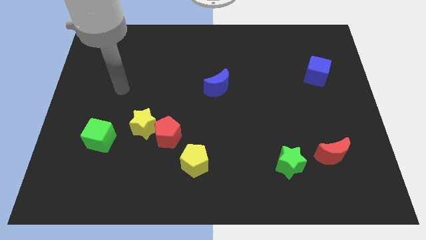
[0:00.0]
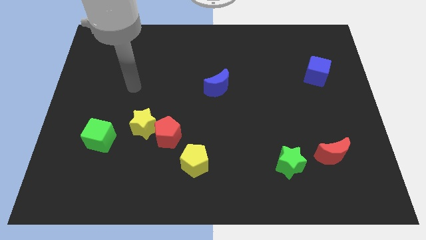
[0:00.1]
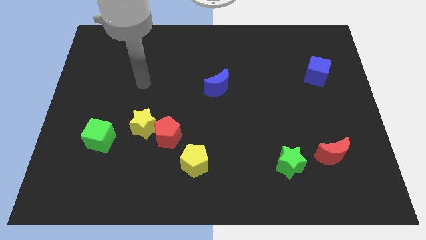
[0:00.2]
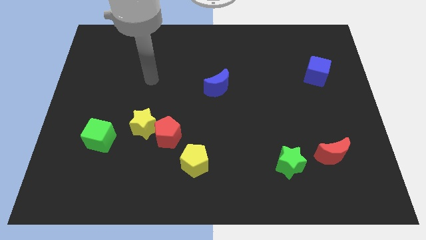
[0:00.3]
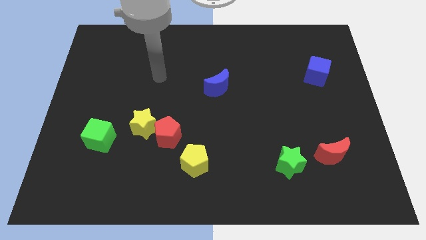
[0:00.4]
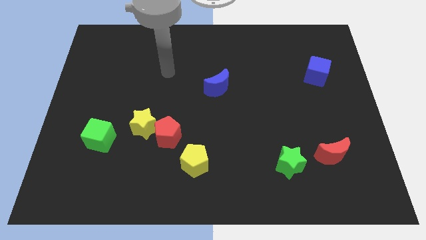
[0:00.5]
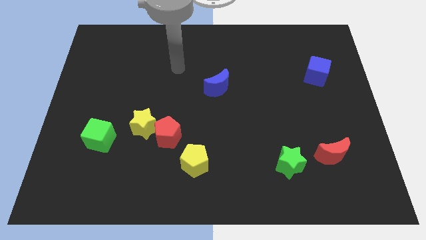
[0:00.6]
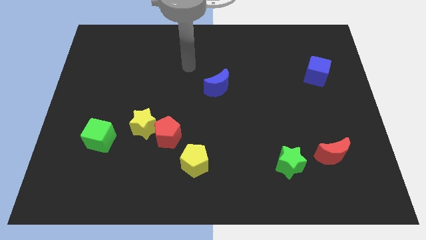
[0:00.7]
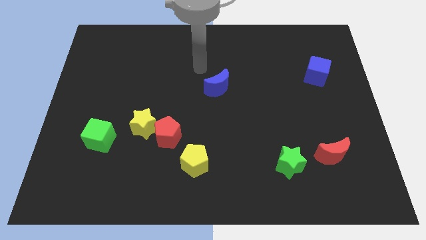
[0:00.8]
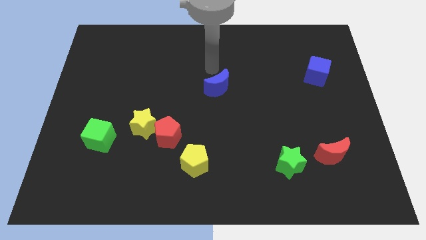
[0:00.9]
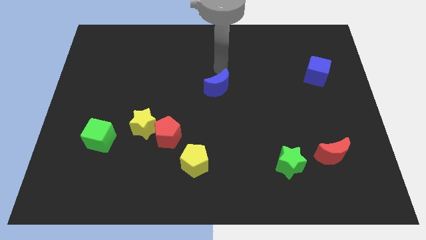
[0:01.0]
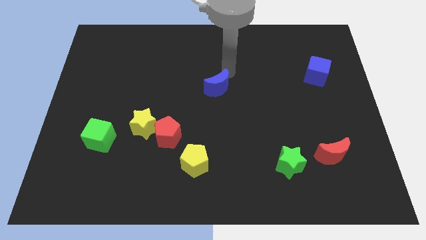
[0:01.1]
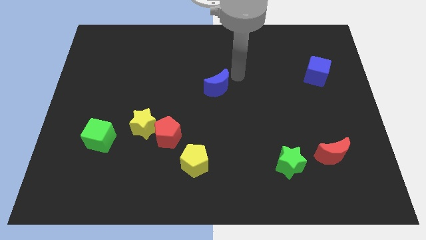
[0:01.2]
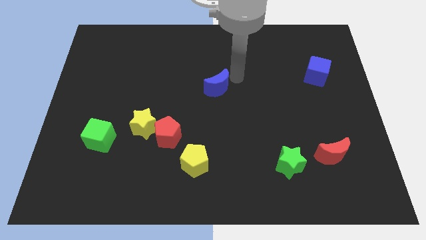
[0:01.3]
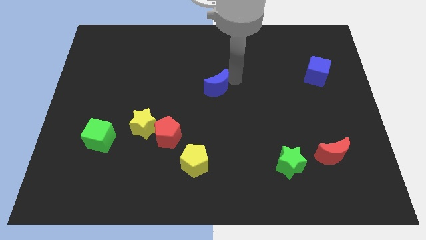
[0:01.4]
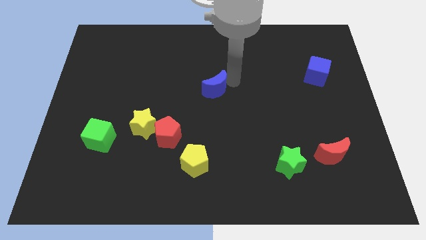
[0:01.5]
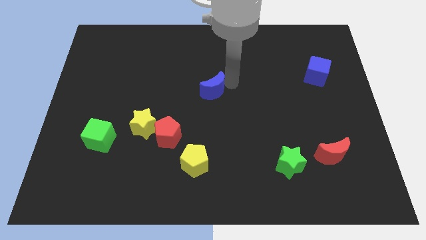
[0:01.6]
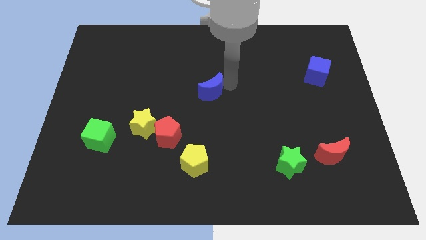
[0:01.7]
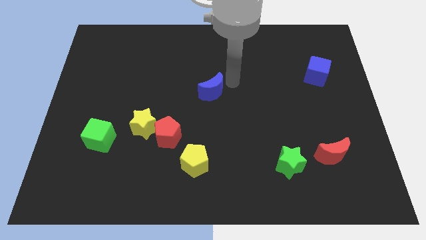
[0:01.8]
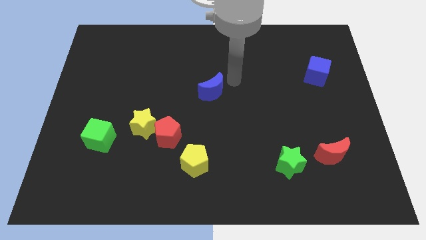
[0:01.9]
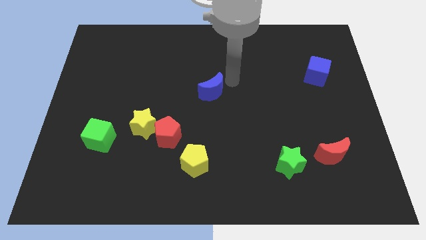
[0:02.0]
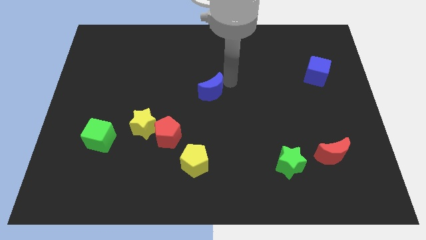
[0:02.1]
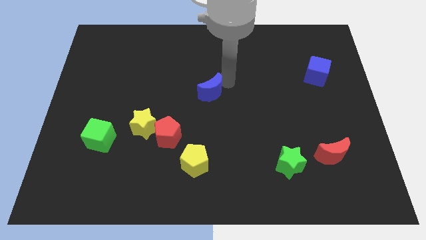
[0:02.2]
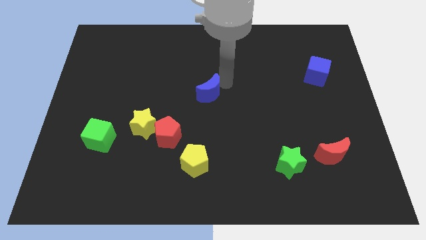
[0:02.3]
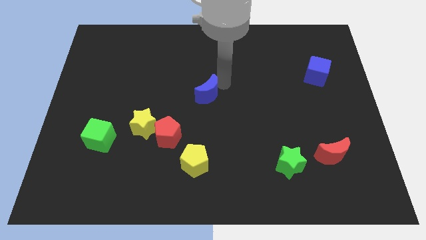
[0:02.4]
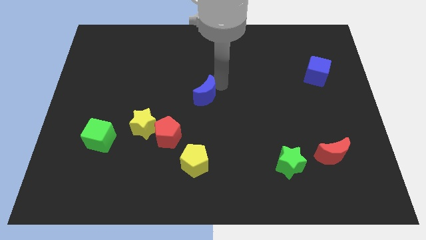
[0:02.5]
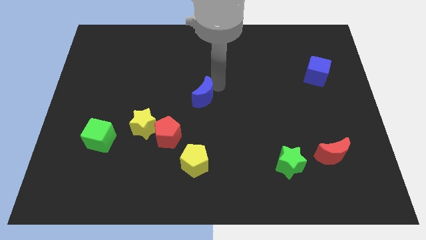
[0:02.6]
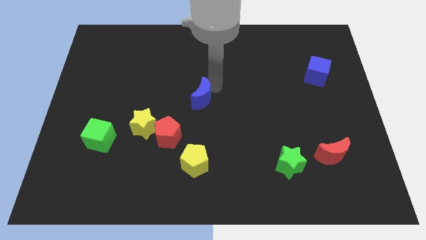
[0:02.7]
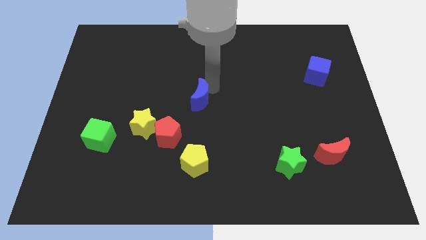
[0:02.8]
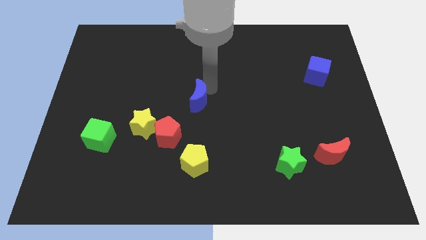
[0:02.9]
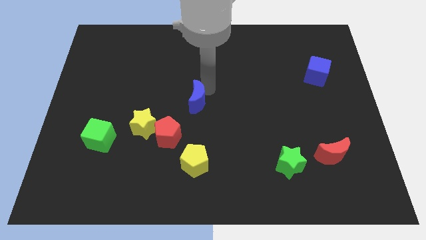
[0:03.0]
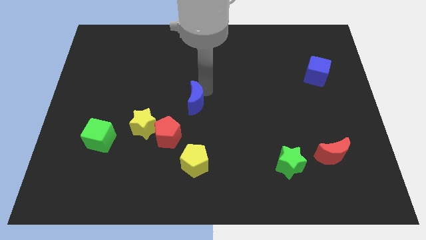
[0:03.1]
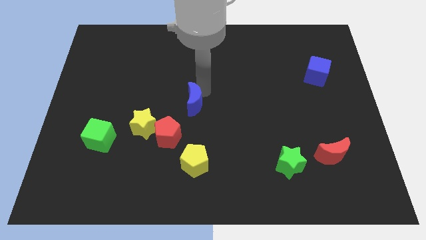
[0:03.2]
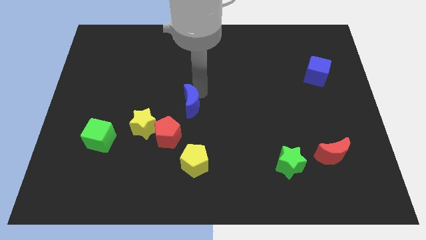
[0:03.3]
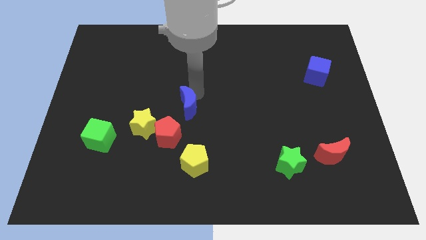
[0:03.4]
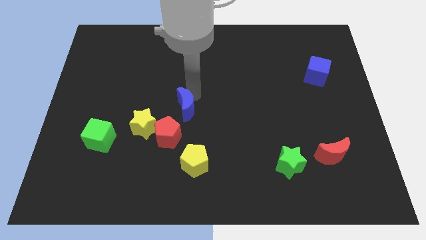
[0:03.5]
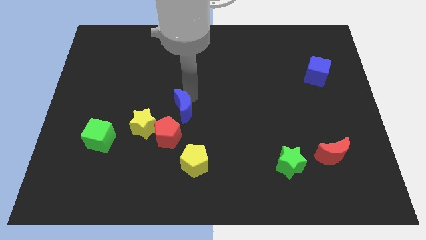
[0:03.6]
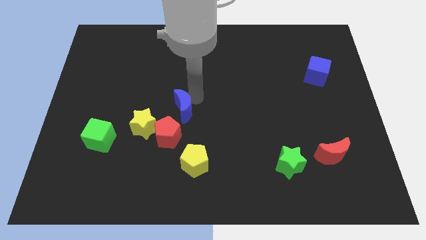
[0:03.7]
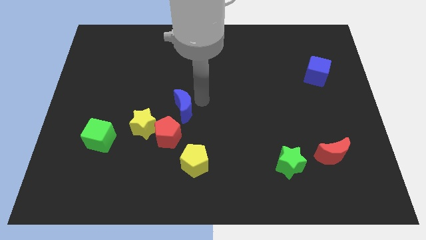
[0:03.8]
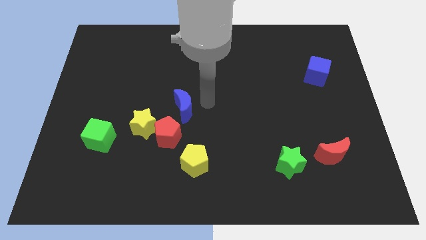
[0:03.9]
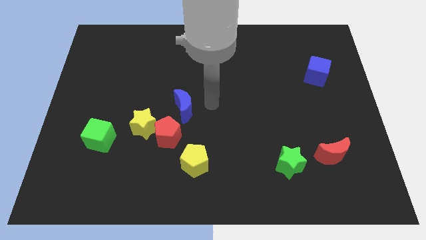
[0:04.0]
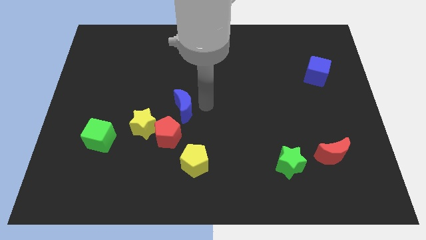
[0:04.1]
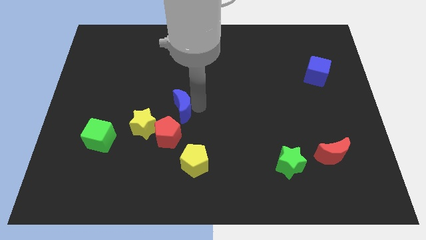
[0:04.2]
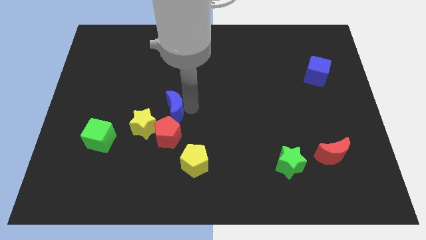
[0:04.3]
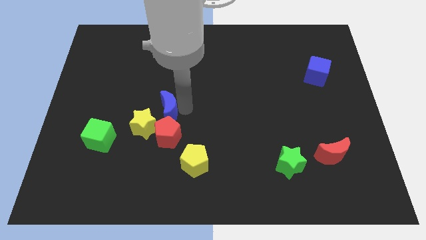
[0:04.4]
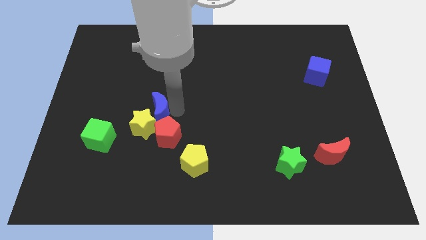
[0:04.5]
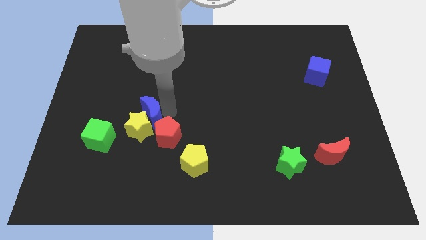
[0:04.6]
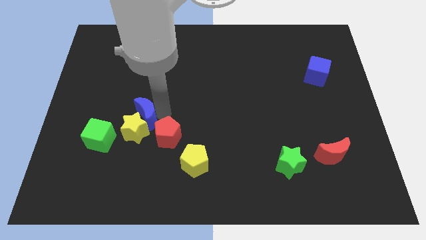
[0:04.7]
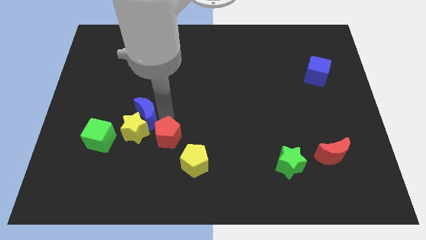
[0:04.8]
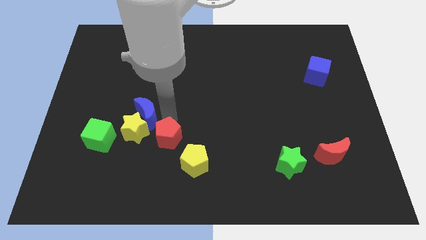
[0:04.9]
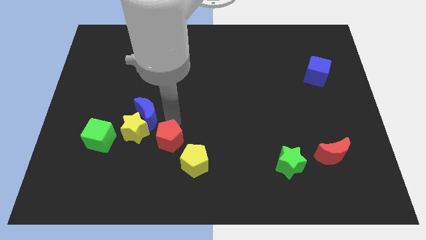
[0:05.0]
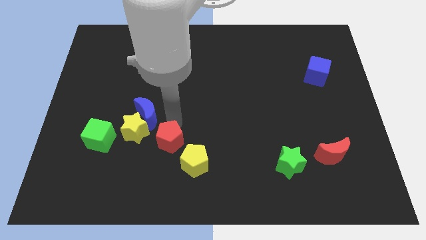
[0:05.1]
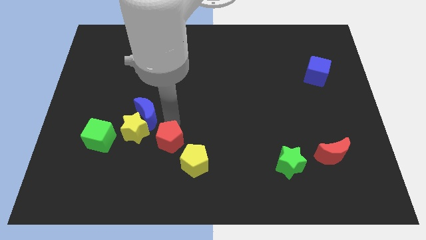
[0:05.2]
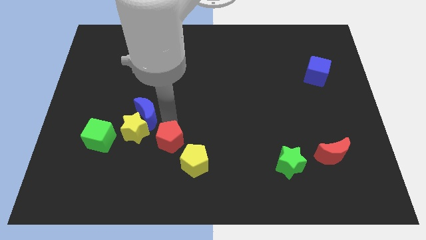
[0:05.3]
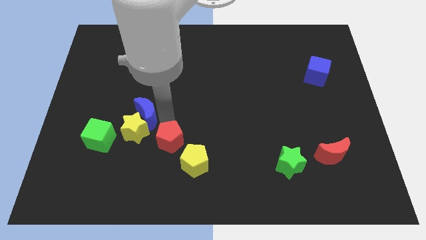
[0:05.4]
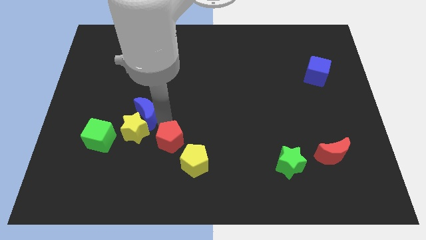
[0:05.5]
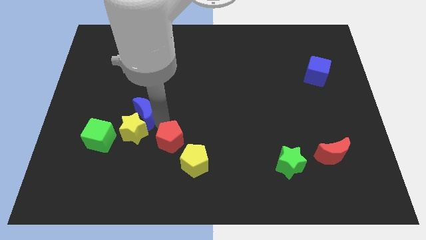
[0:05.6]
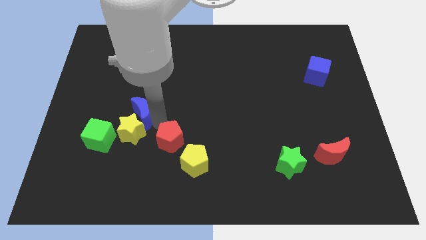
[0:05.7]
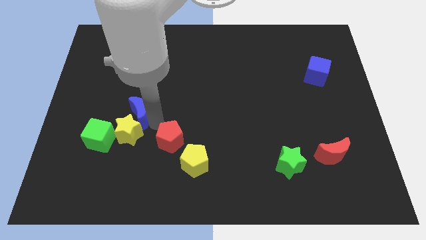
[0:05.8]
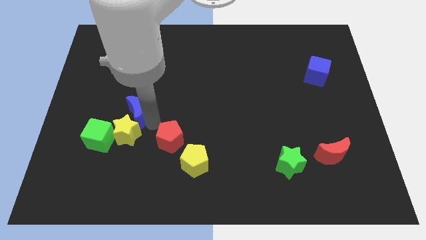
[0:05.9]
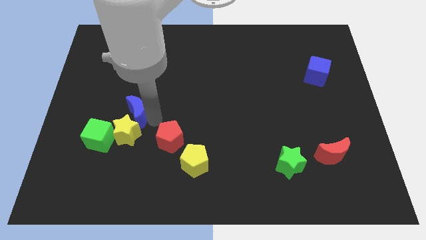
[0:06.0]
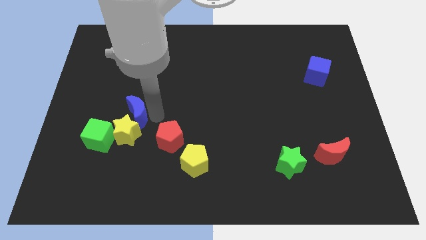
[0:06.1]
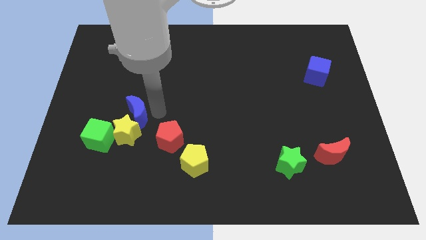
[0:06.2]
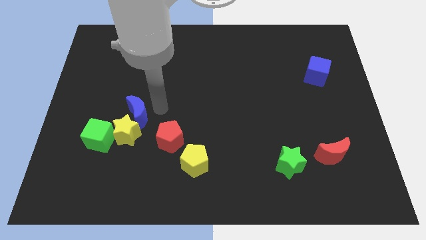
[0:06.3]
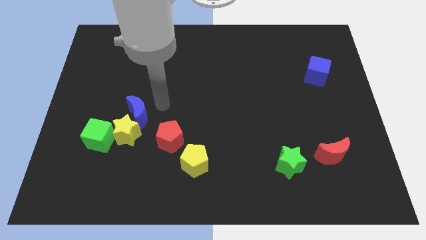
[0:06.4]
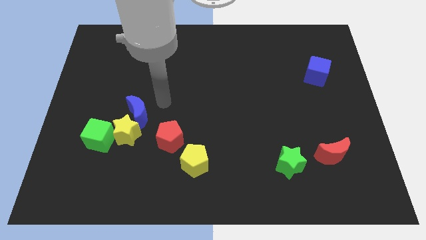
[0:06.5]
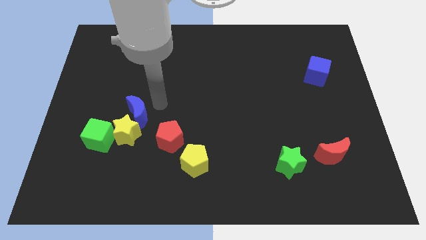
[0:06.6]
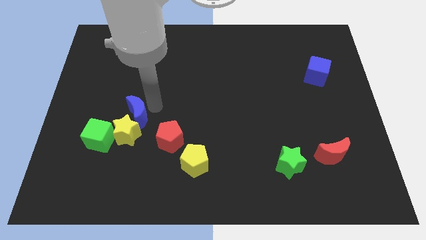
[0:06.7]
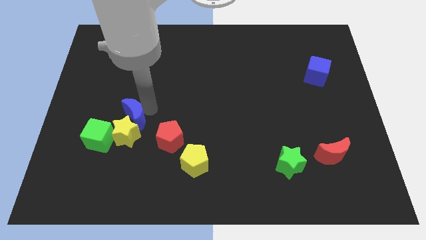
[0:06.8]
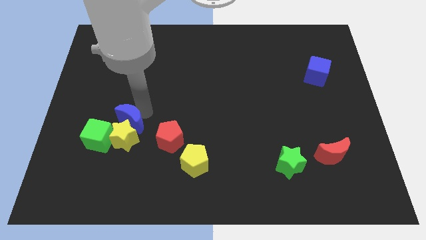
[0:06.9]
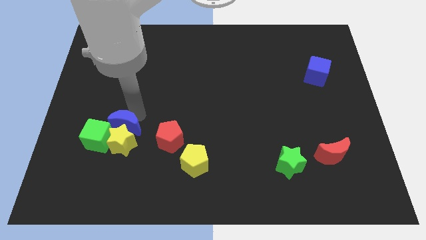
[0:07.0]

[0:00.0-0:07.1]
move the blue moon downwards and to the left

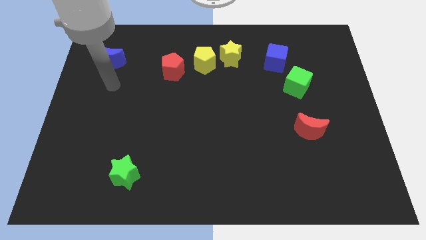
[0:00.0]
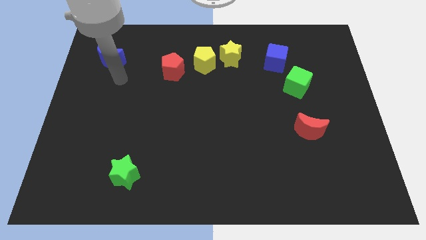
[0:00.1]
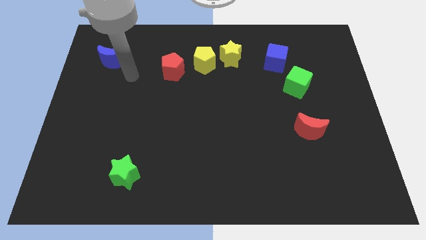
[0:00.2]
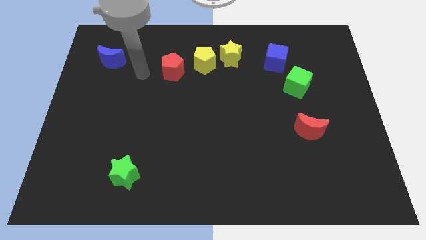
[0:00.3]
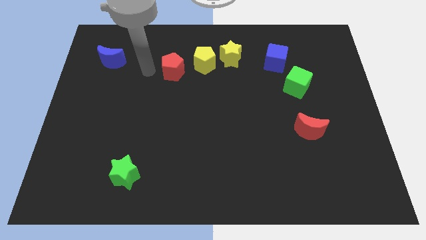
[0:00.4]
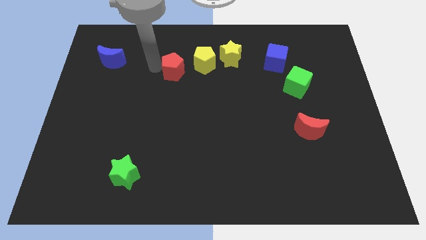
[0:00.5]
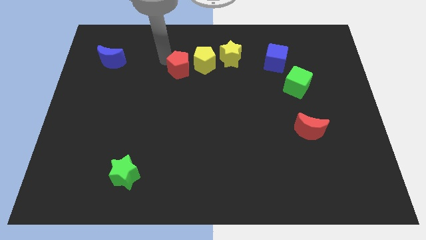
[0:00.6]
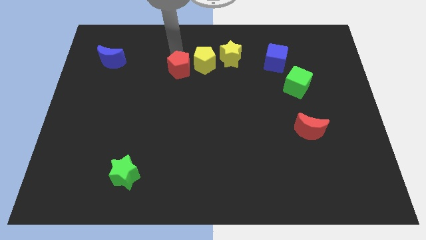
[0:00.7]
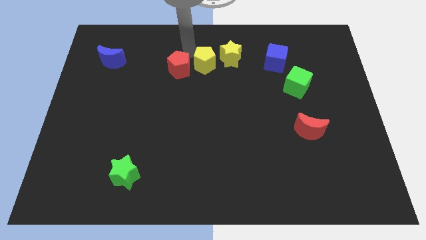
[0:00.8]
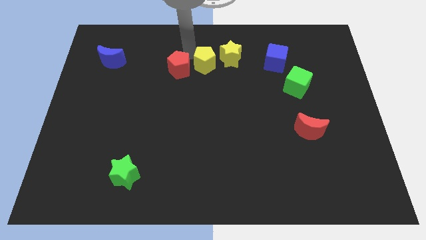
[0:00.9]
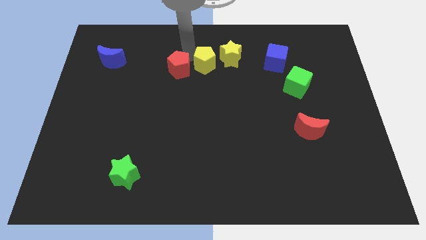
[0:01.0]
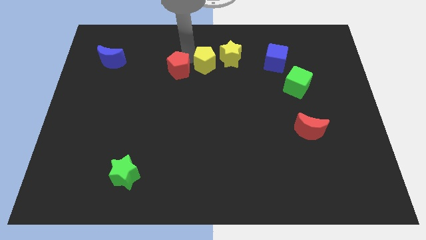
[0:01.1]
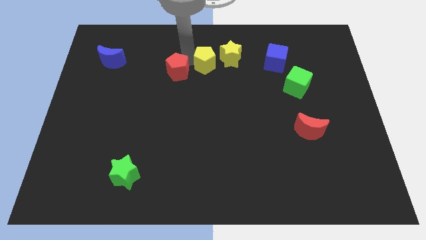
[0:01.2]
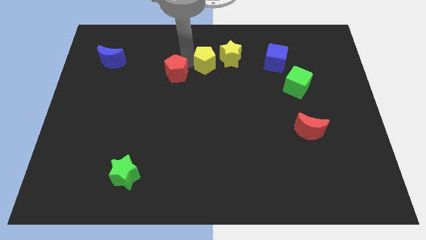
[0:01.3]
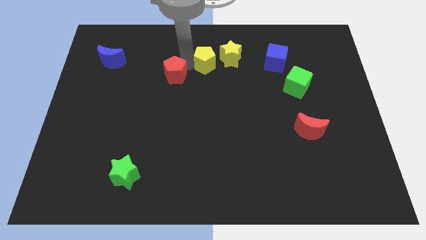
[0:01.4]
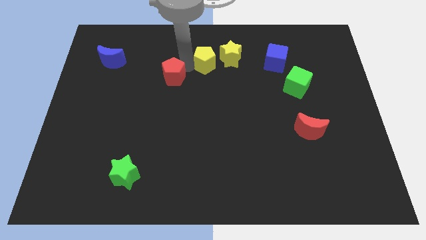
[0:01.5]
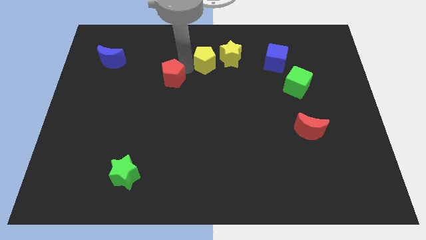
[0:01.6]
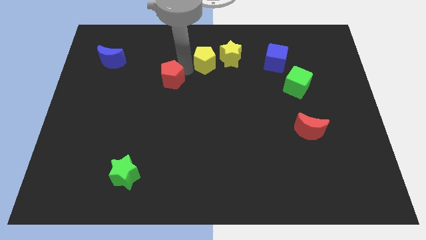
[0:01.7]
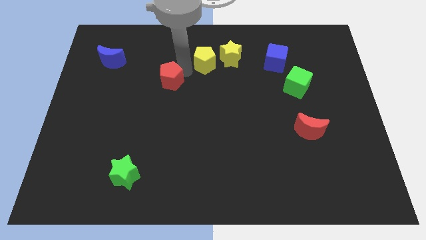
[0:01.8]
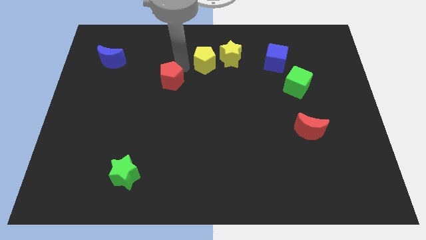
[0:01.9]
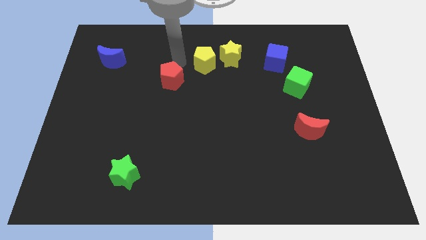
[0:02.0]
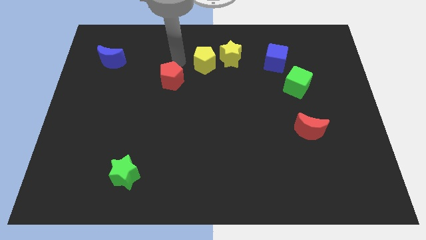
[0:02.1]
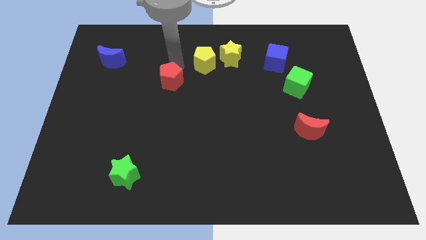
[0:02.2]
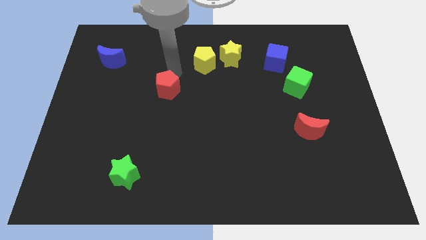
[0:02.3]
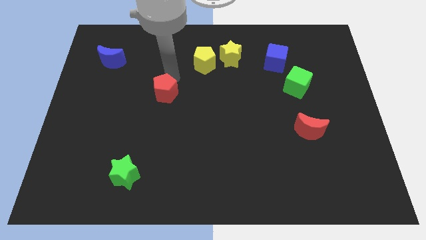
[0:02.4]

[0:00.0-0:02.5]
push the red pentagon a bit down
